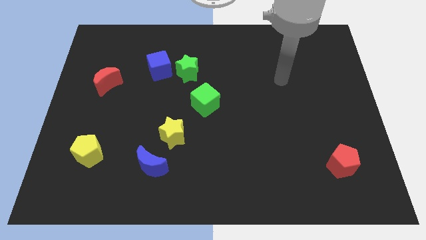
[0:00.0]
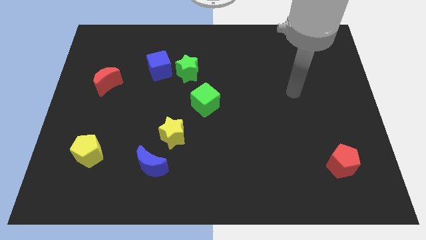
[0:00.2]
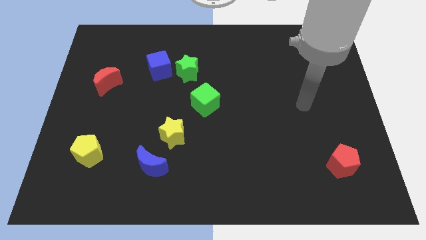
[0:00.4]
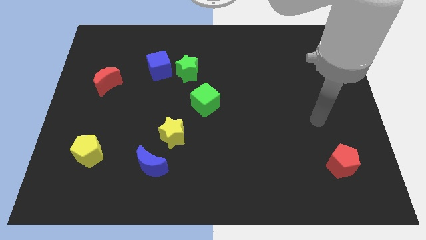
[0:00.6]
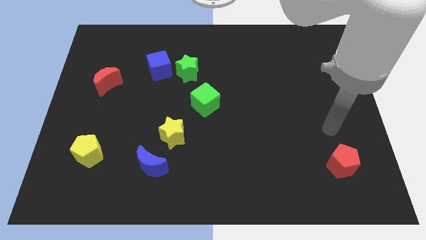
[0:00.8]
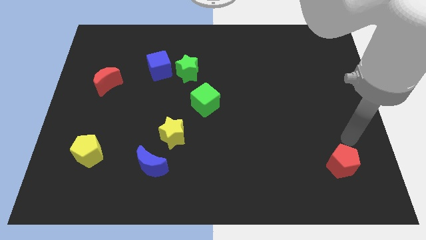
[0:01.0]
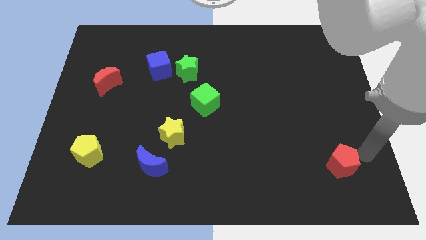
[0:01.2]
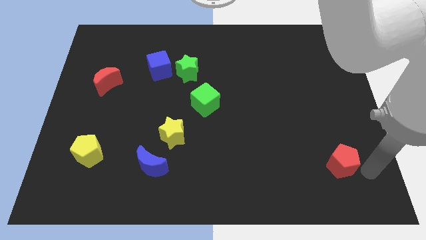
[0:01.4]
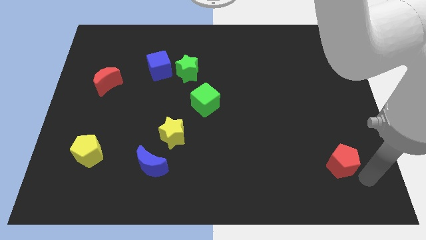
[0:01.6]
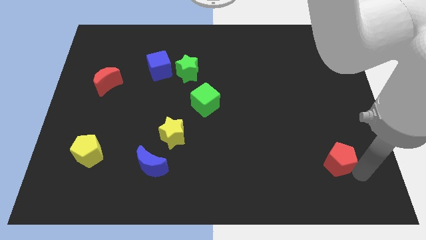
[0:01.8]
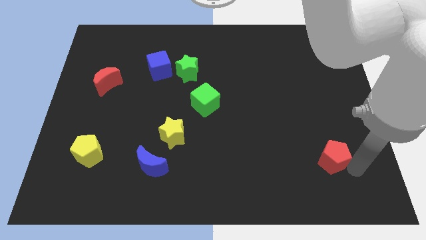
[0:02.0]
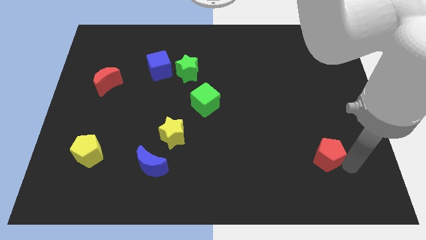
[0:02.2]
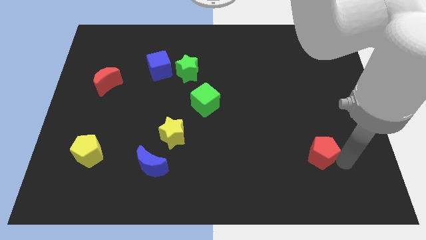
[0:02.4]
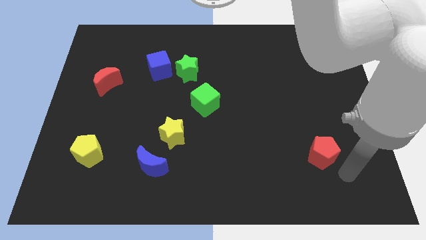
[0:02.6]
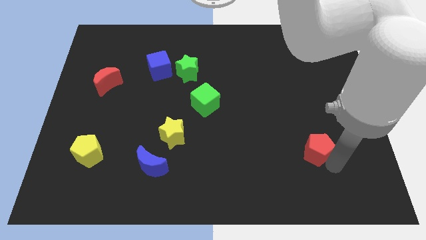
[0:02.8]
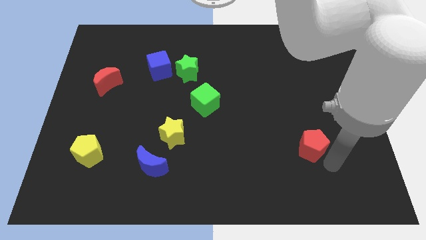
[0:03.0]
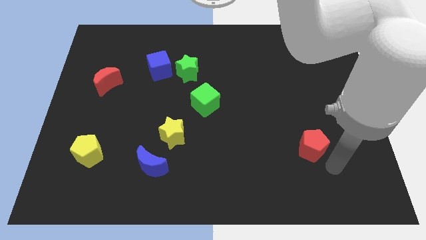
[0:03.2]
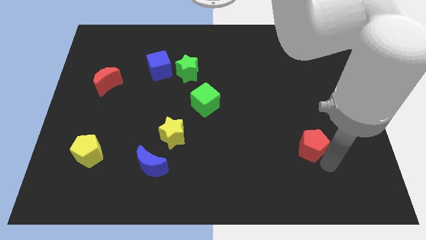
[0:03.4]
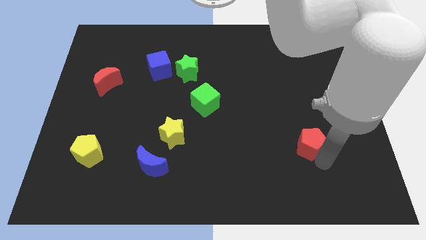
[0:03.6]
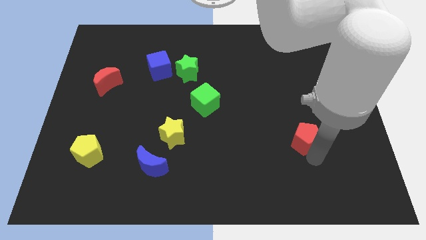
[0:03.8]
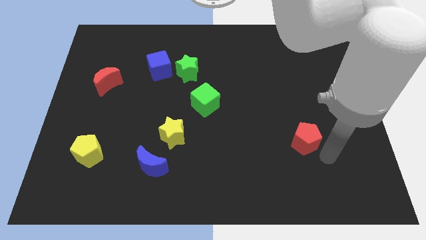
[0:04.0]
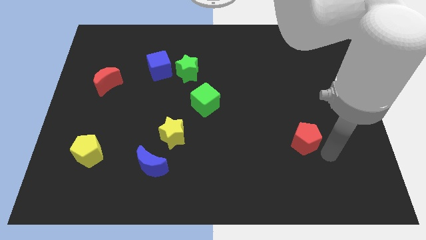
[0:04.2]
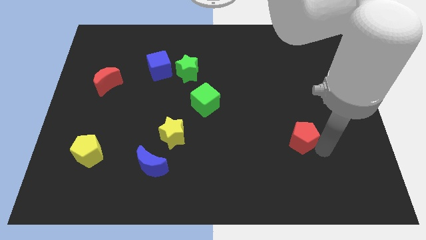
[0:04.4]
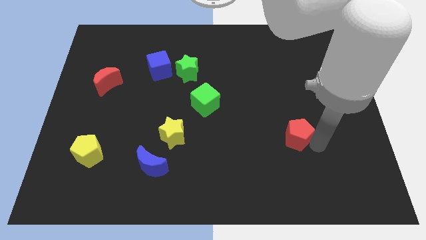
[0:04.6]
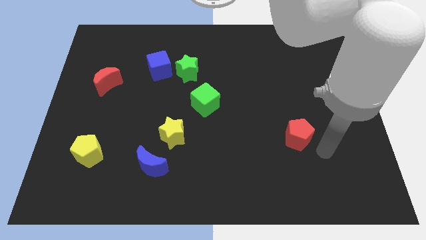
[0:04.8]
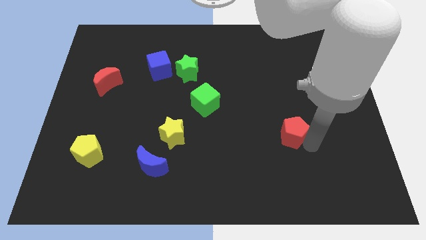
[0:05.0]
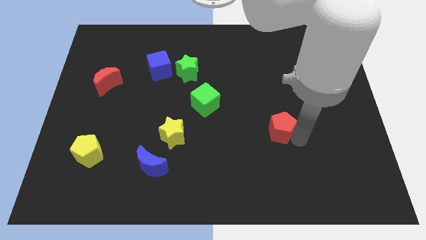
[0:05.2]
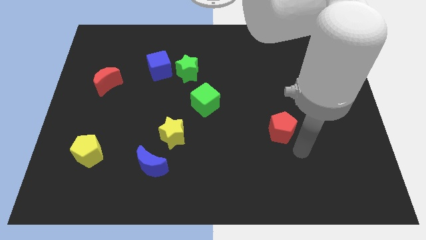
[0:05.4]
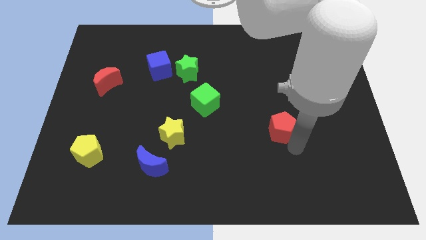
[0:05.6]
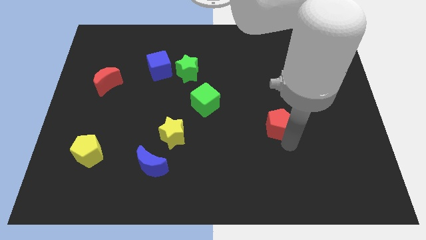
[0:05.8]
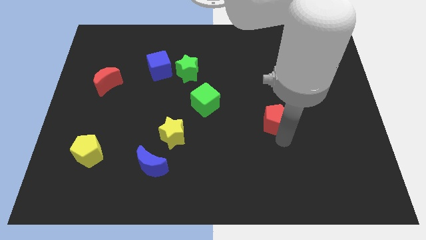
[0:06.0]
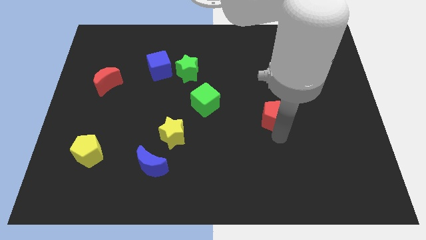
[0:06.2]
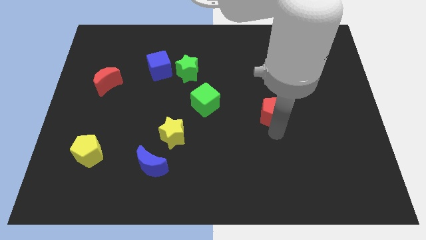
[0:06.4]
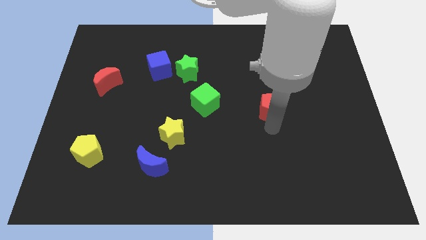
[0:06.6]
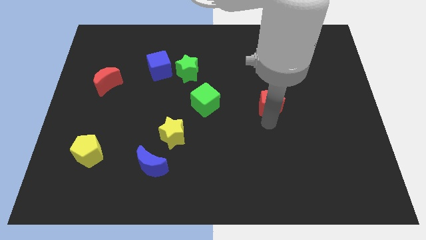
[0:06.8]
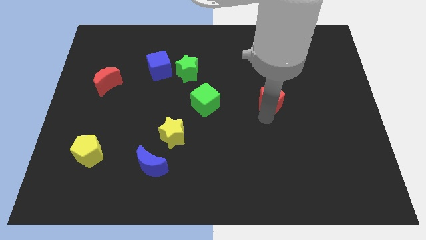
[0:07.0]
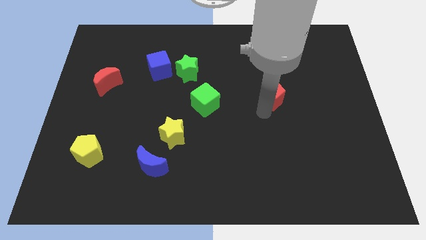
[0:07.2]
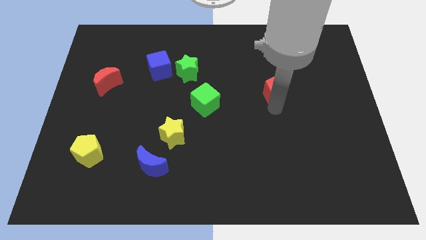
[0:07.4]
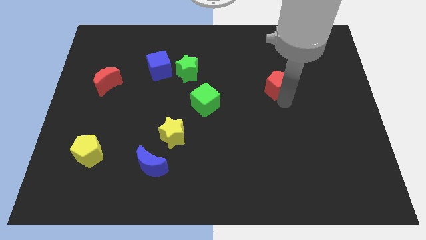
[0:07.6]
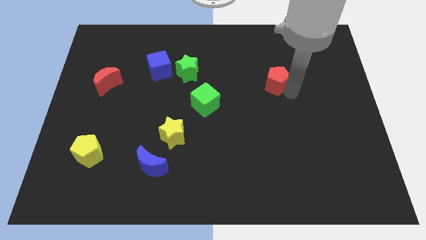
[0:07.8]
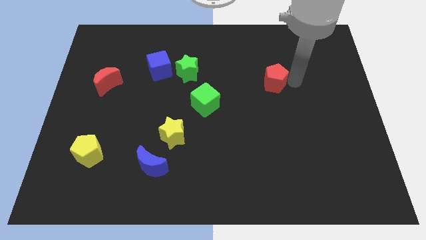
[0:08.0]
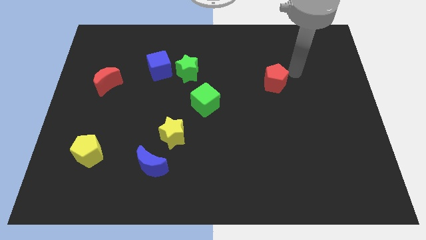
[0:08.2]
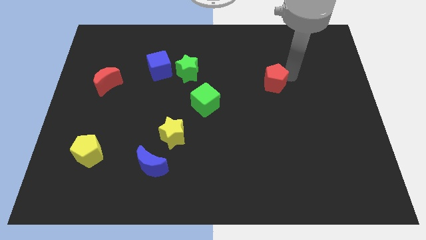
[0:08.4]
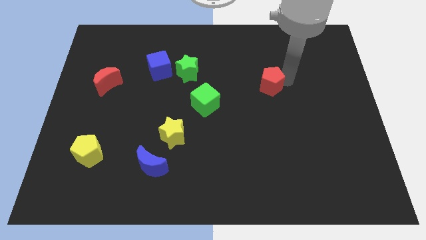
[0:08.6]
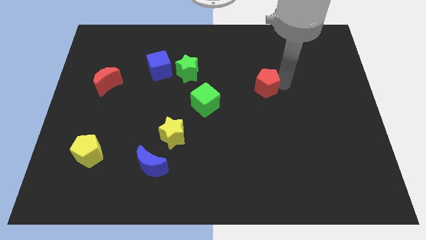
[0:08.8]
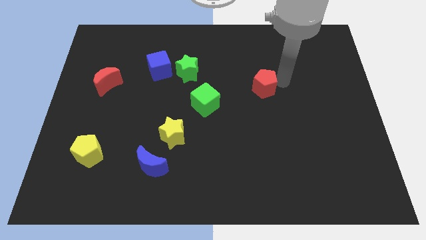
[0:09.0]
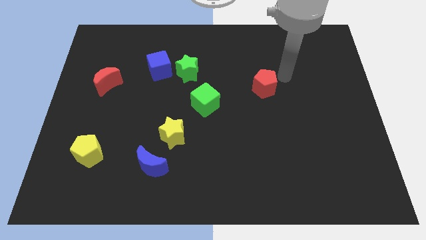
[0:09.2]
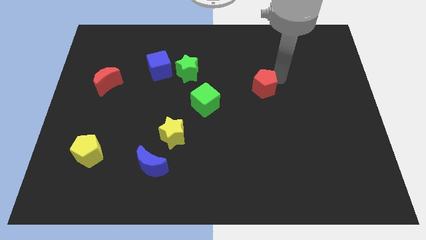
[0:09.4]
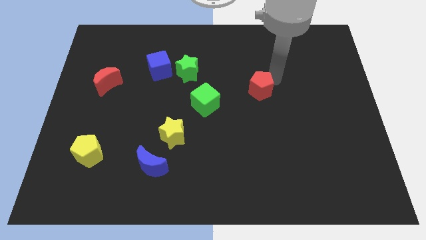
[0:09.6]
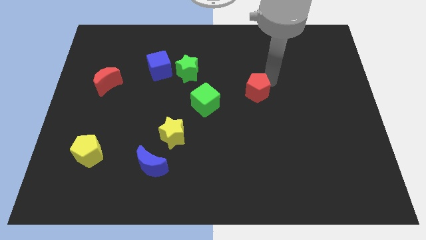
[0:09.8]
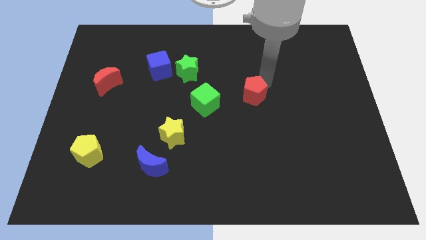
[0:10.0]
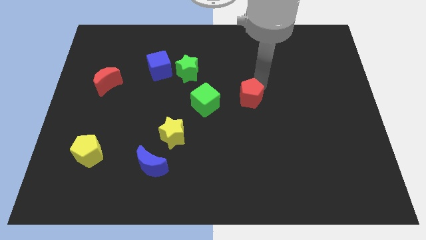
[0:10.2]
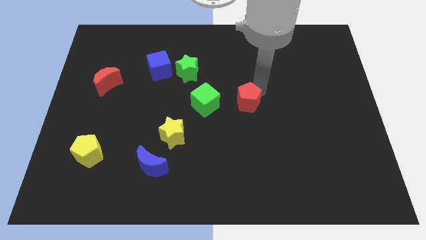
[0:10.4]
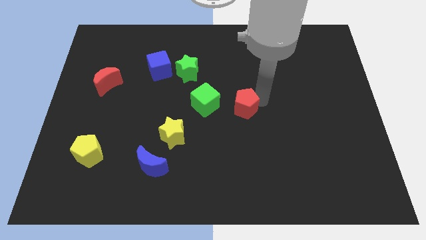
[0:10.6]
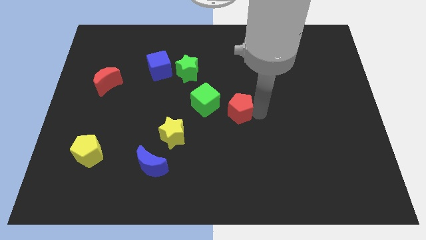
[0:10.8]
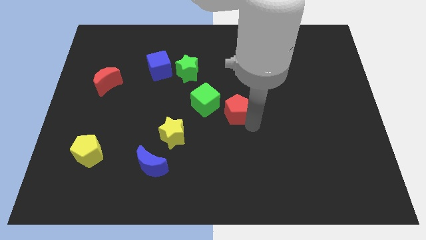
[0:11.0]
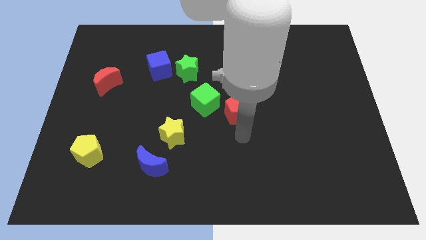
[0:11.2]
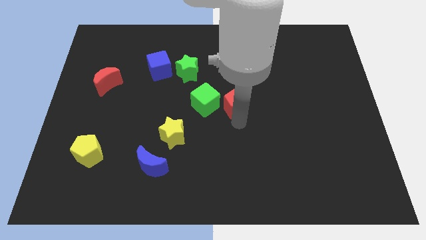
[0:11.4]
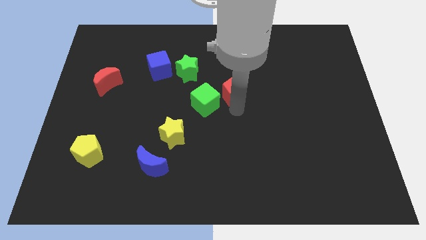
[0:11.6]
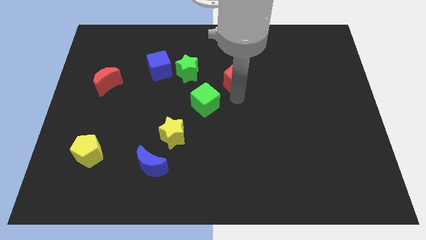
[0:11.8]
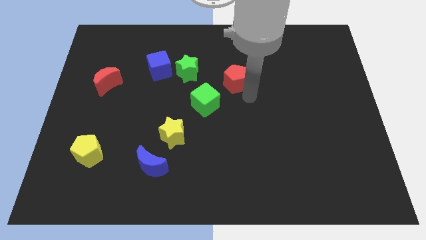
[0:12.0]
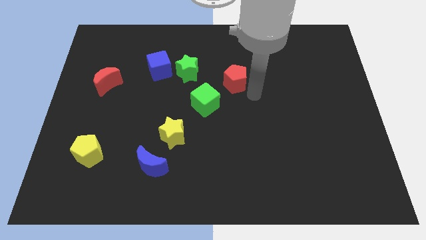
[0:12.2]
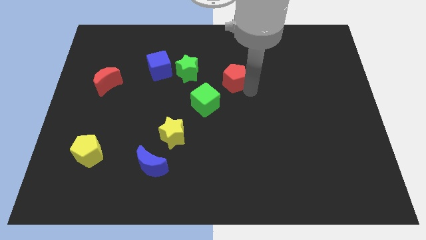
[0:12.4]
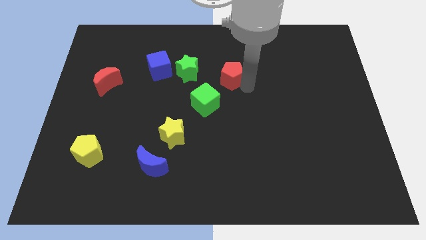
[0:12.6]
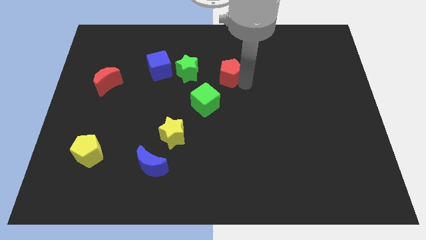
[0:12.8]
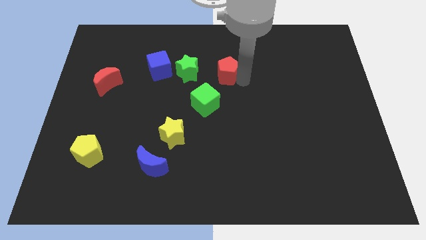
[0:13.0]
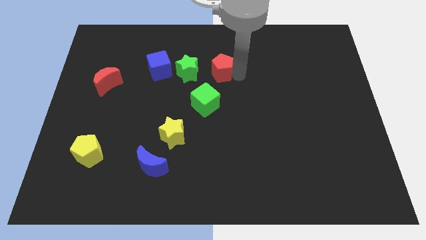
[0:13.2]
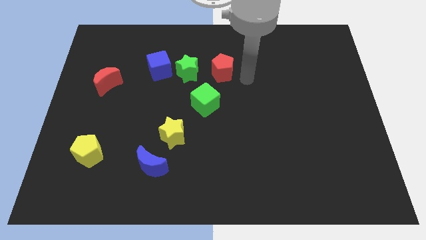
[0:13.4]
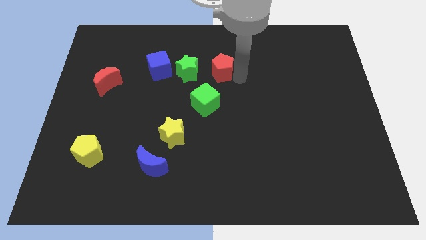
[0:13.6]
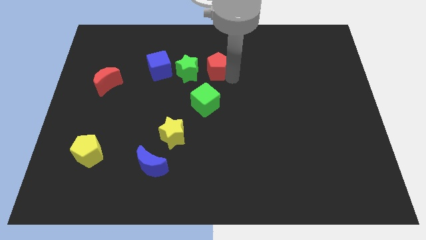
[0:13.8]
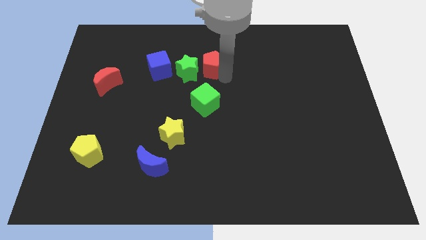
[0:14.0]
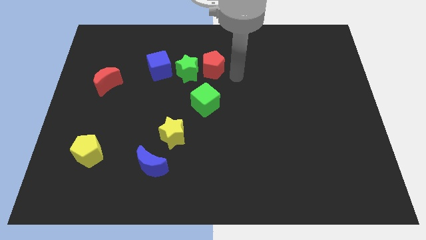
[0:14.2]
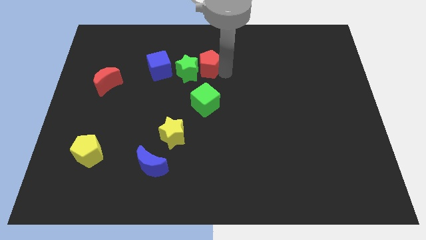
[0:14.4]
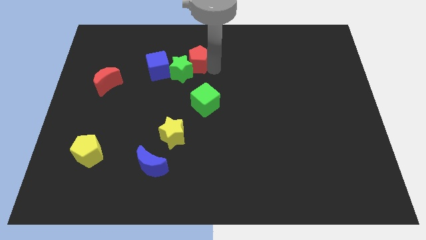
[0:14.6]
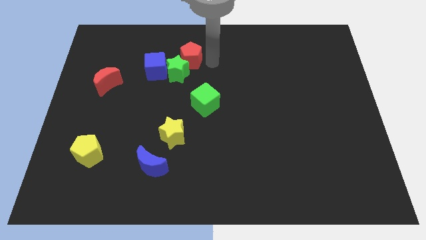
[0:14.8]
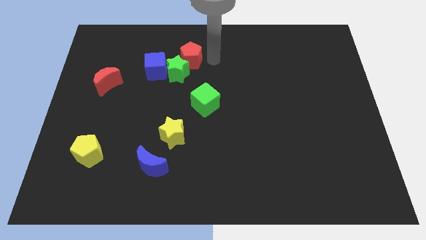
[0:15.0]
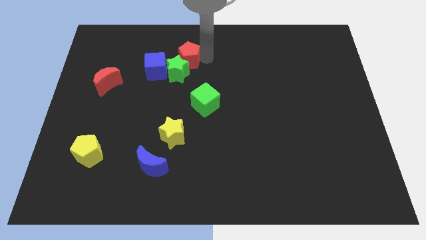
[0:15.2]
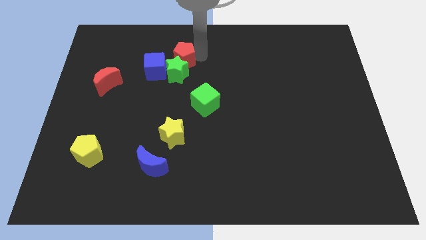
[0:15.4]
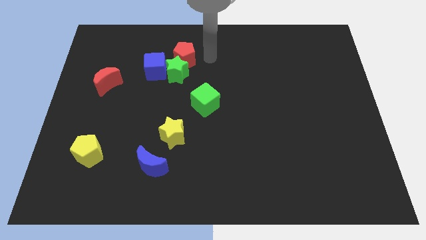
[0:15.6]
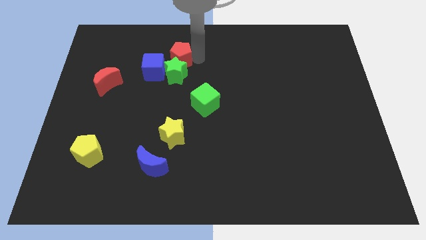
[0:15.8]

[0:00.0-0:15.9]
put the red pentagon diagonally up and to the left of the green star
